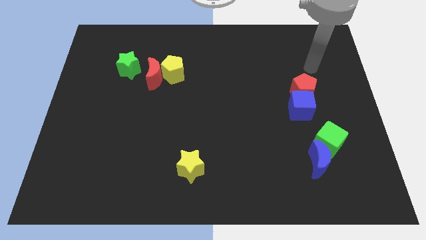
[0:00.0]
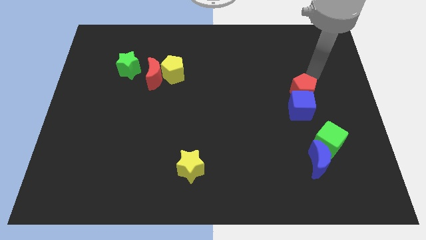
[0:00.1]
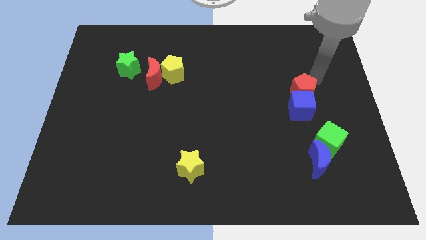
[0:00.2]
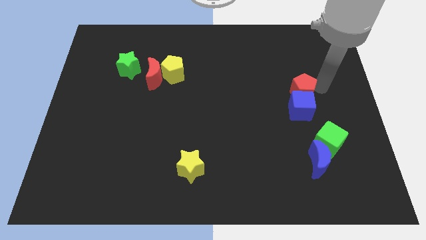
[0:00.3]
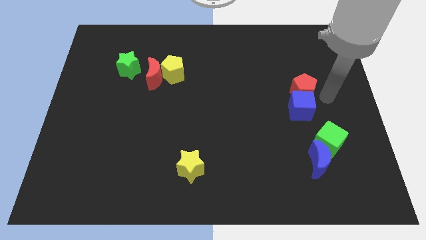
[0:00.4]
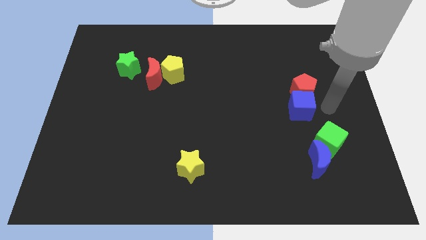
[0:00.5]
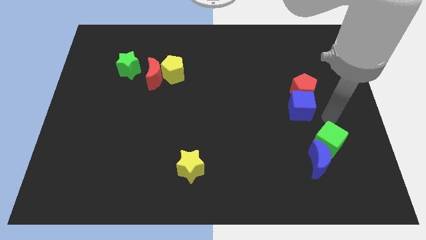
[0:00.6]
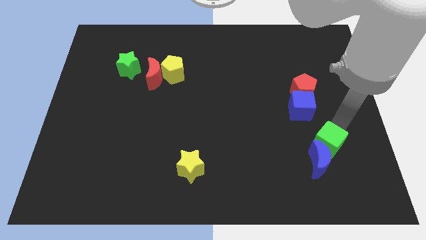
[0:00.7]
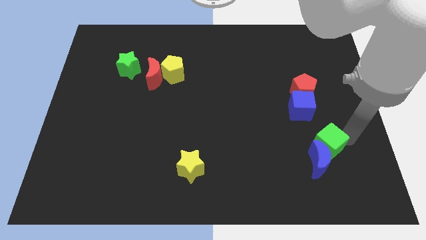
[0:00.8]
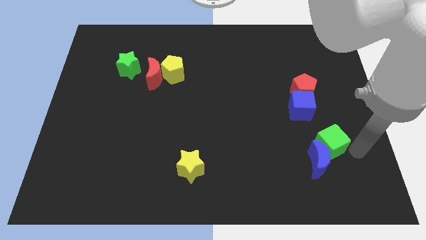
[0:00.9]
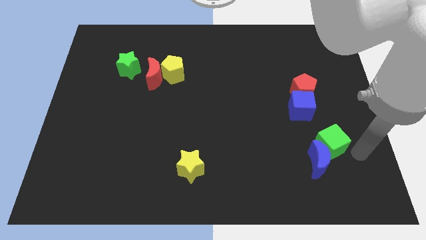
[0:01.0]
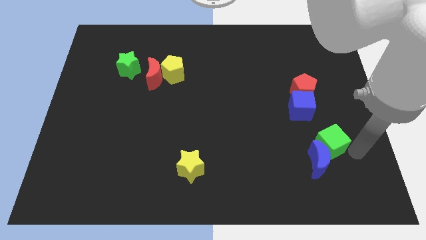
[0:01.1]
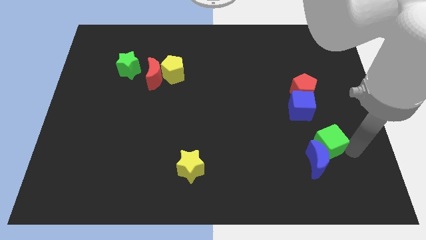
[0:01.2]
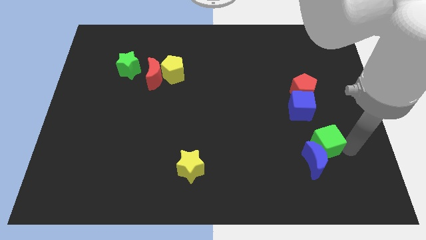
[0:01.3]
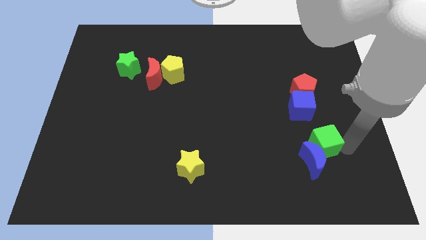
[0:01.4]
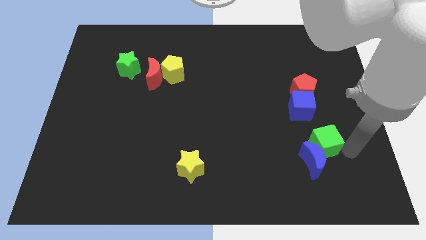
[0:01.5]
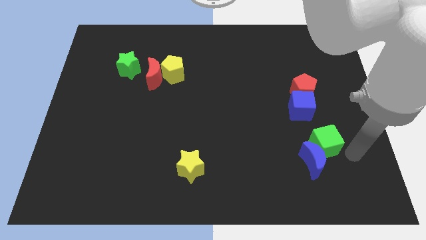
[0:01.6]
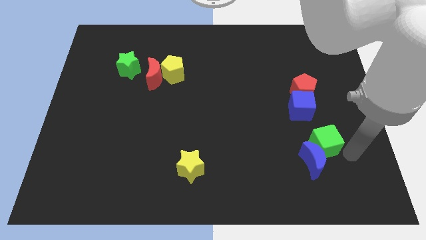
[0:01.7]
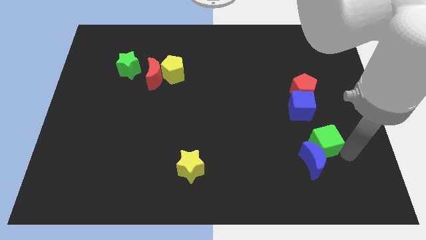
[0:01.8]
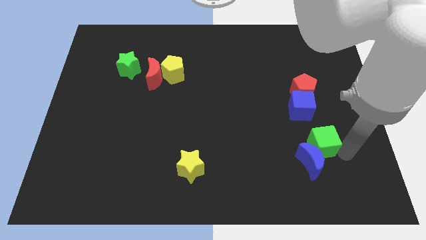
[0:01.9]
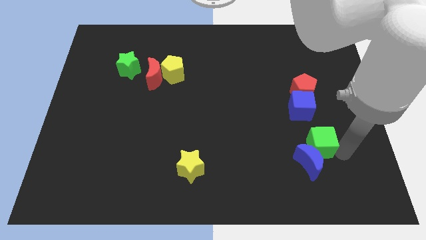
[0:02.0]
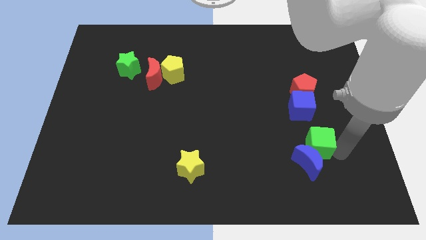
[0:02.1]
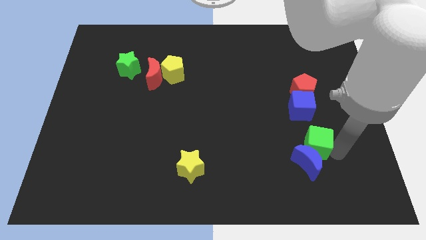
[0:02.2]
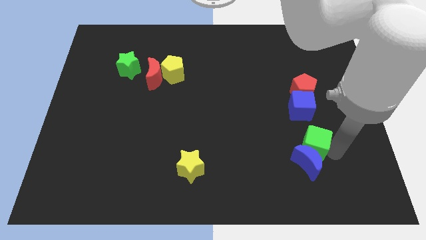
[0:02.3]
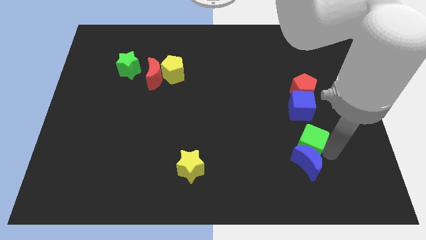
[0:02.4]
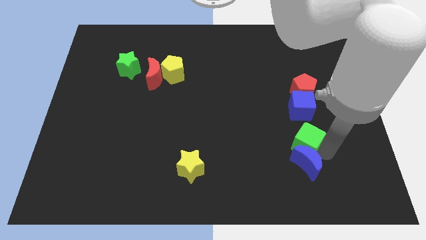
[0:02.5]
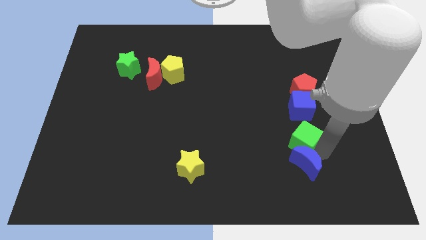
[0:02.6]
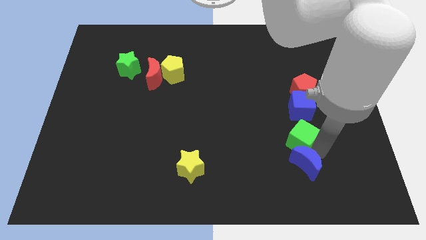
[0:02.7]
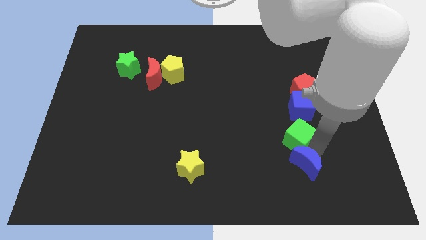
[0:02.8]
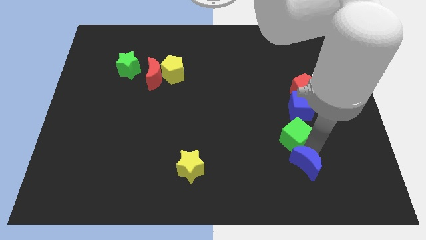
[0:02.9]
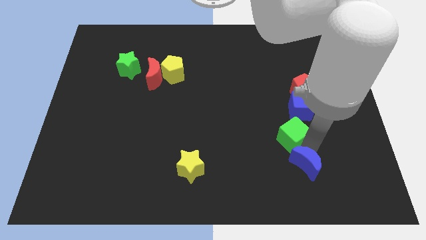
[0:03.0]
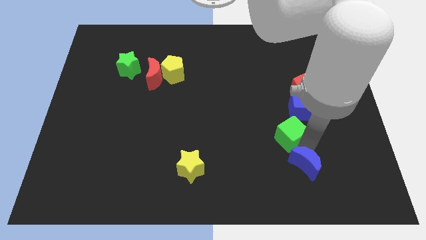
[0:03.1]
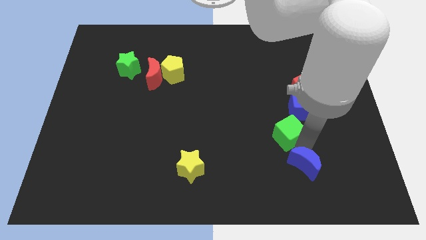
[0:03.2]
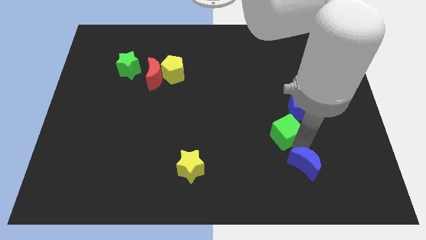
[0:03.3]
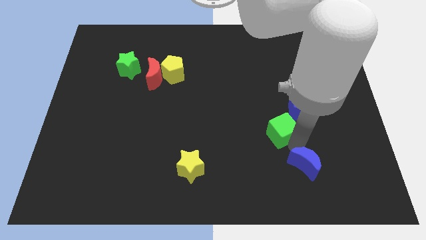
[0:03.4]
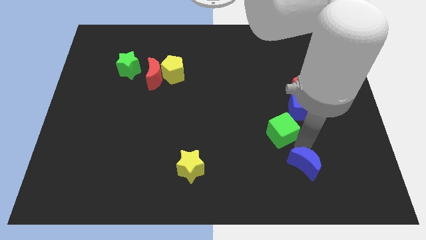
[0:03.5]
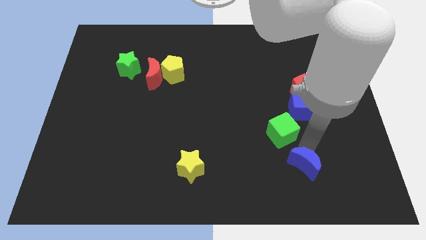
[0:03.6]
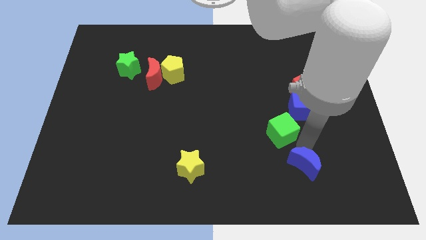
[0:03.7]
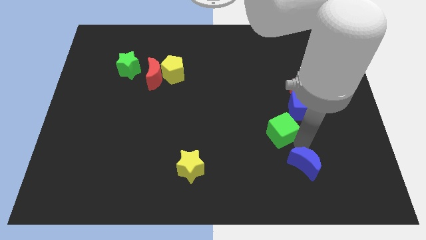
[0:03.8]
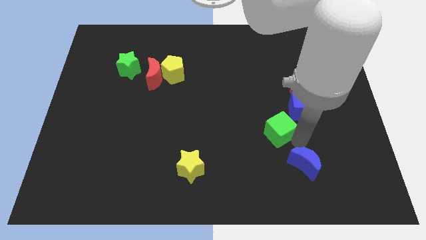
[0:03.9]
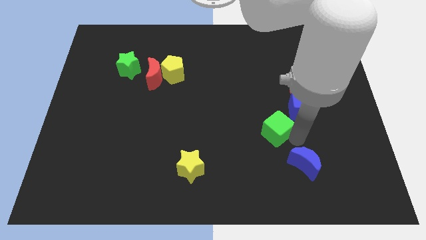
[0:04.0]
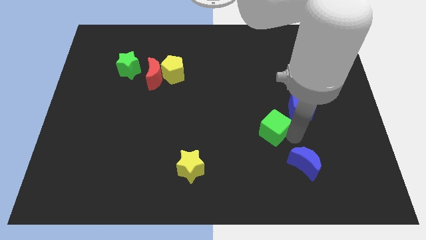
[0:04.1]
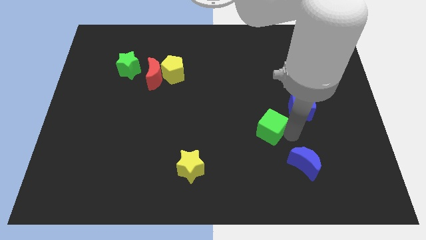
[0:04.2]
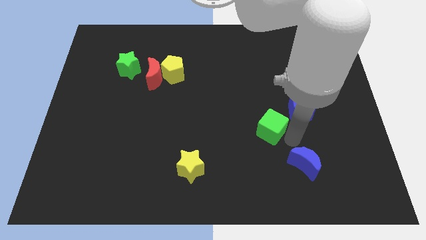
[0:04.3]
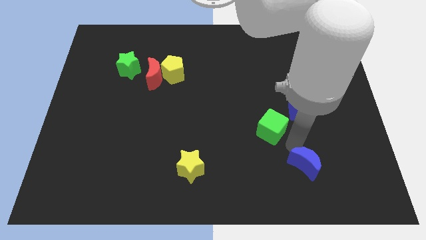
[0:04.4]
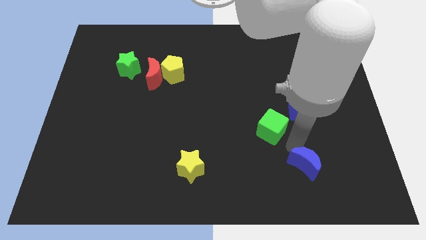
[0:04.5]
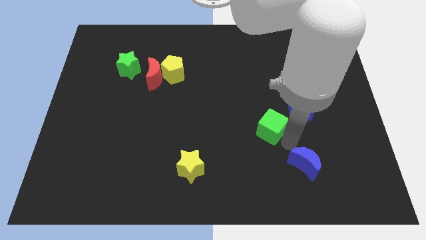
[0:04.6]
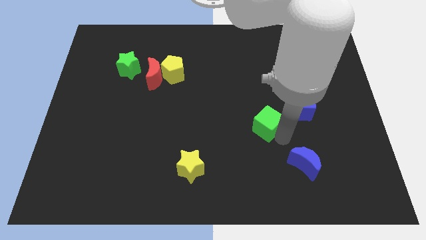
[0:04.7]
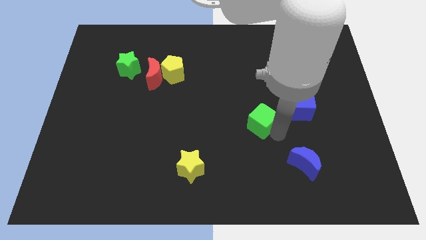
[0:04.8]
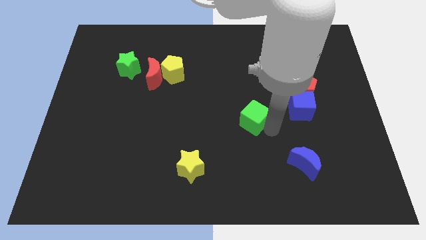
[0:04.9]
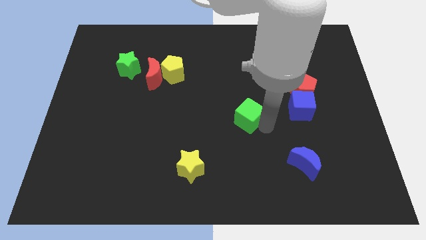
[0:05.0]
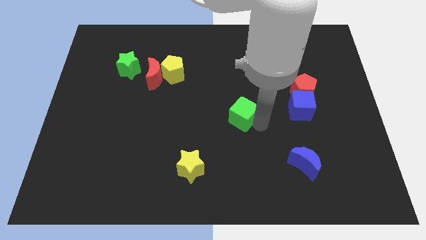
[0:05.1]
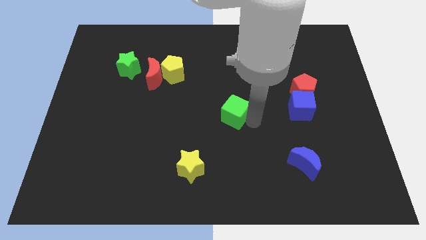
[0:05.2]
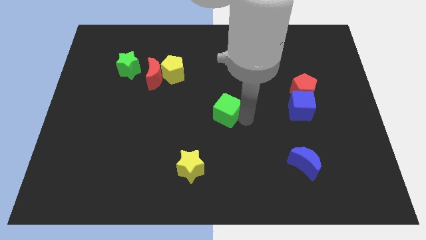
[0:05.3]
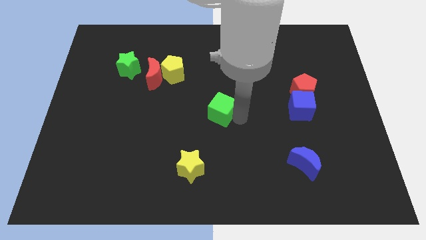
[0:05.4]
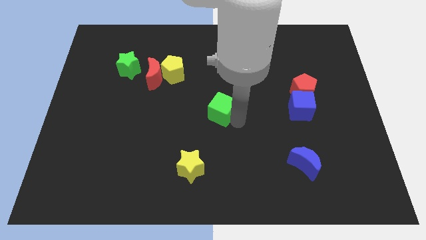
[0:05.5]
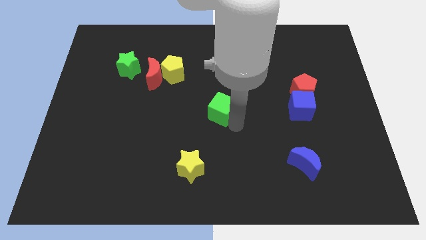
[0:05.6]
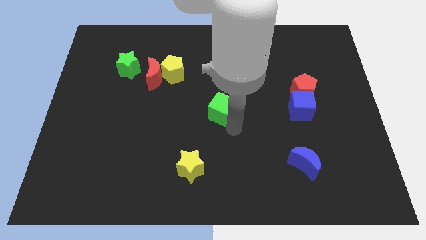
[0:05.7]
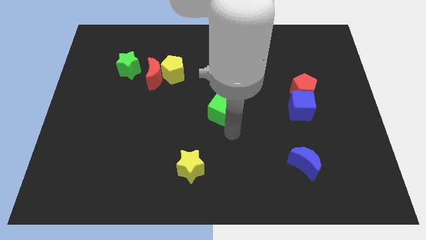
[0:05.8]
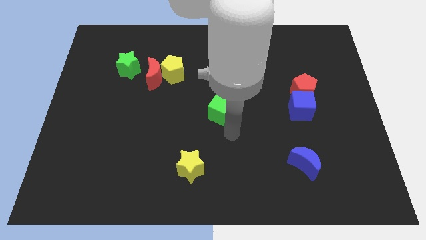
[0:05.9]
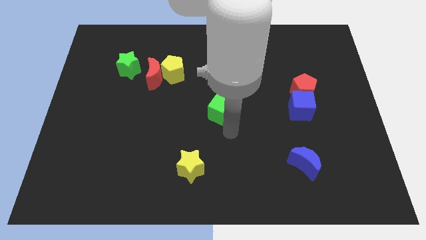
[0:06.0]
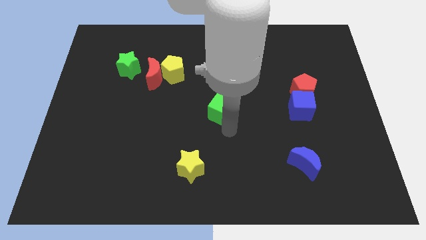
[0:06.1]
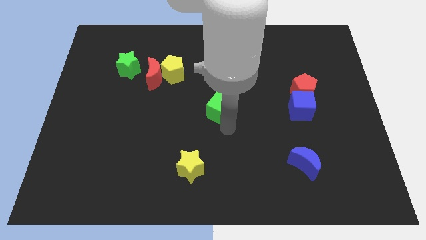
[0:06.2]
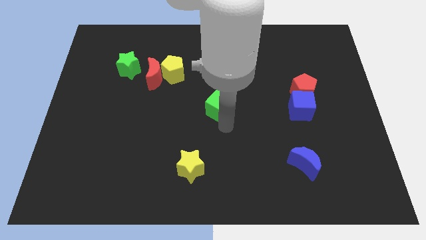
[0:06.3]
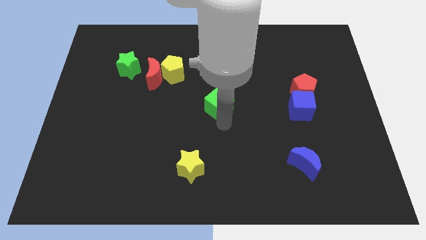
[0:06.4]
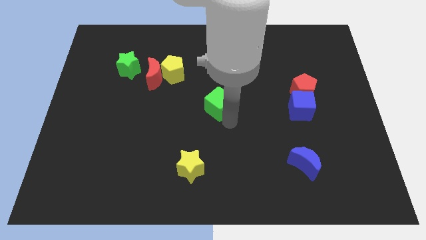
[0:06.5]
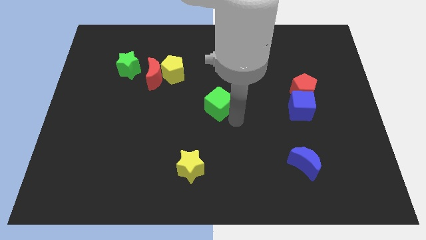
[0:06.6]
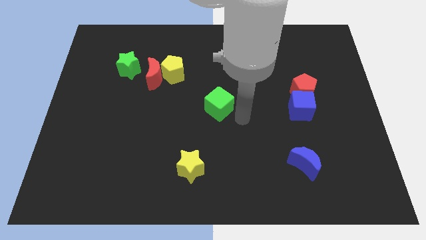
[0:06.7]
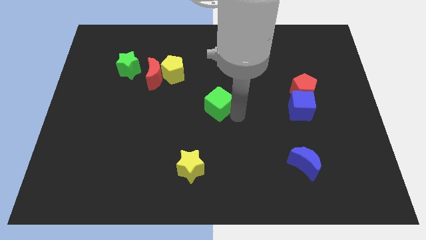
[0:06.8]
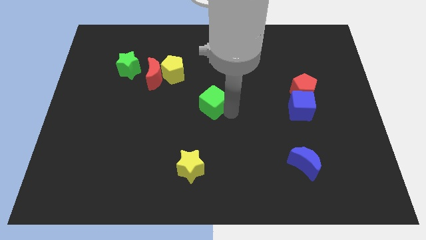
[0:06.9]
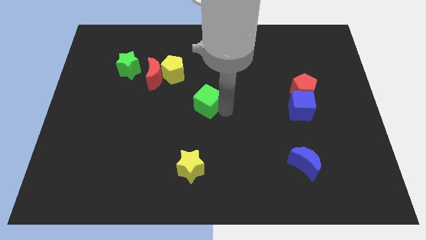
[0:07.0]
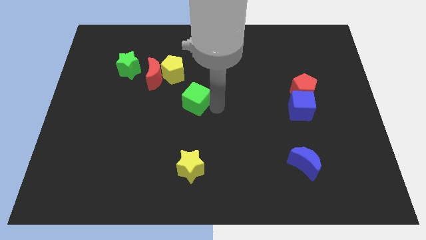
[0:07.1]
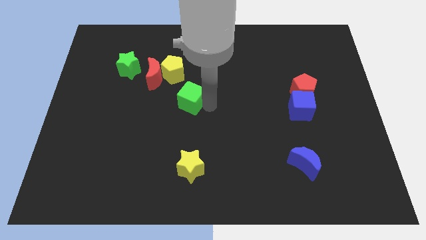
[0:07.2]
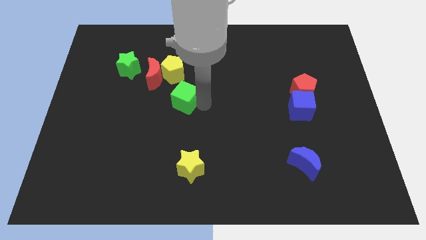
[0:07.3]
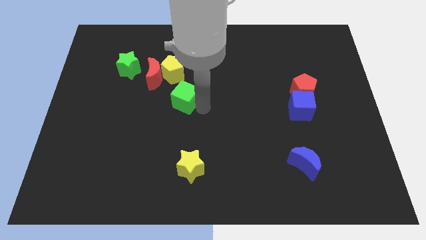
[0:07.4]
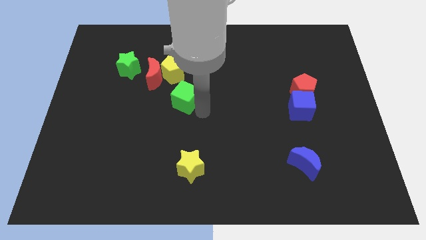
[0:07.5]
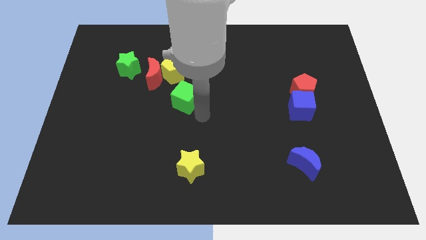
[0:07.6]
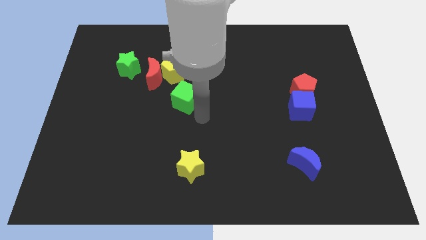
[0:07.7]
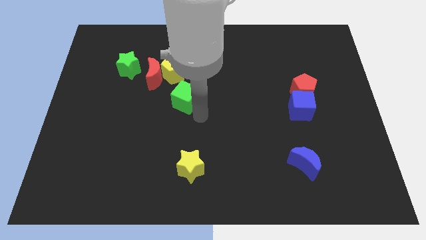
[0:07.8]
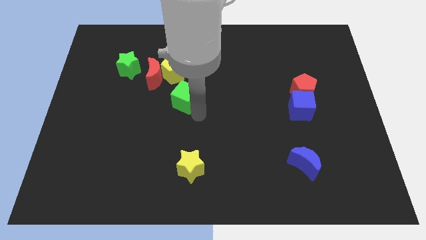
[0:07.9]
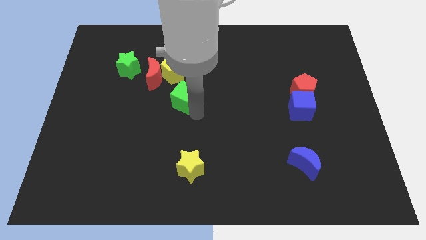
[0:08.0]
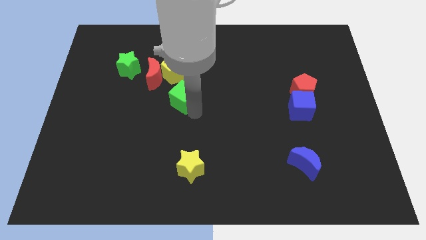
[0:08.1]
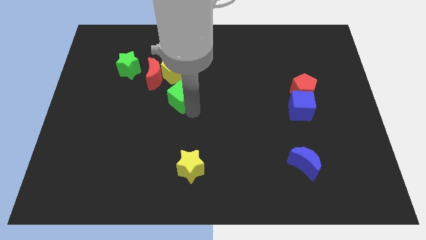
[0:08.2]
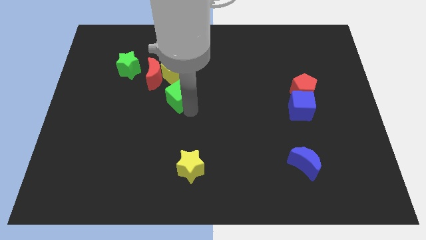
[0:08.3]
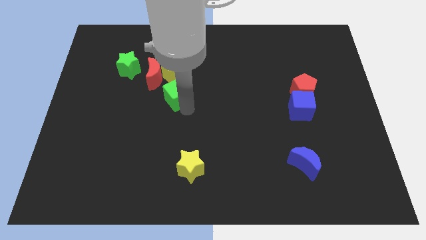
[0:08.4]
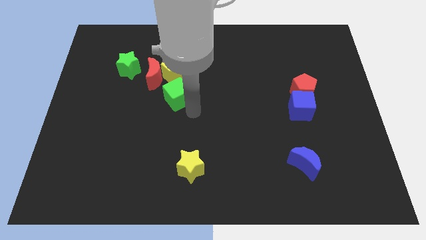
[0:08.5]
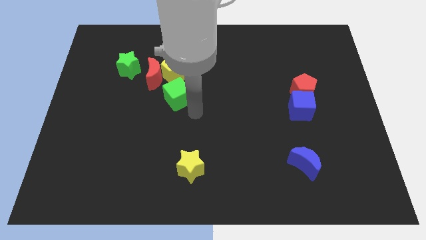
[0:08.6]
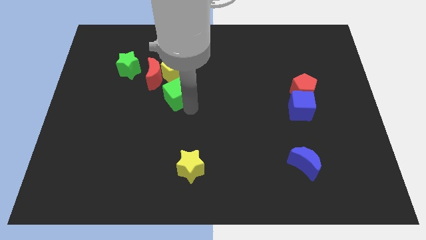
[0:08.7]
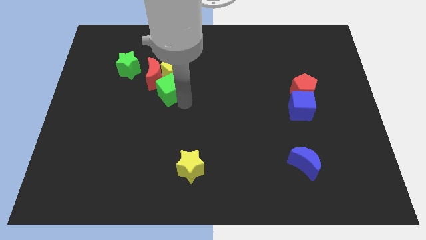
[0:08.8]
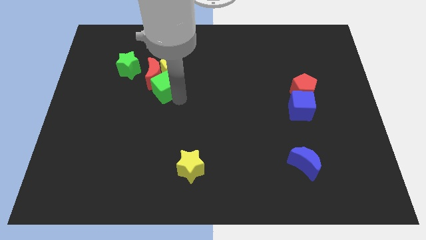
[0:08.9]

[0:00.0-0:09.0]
push the green cube close to the red moon
